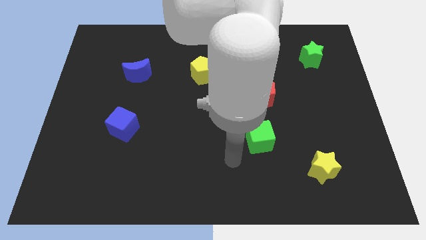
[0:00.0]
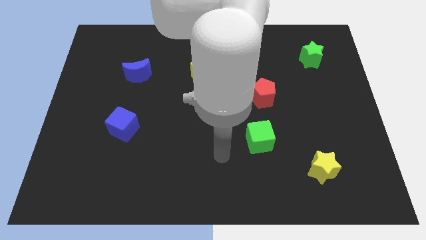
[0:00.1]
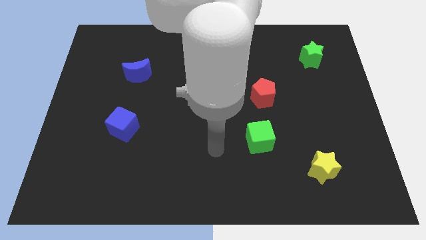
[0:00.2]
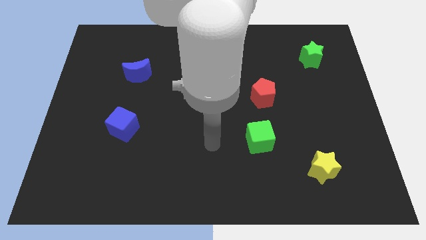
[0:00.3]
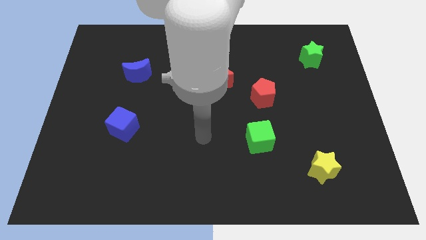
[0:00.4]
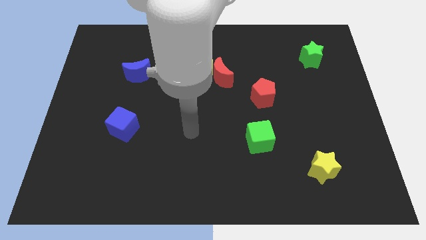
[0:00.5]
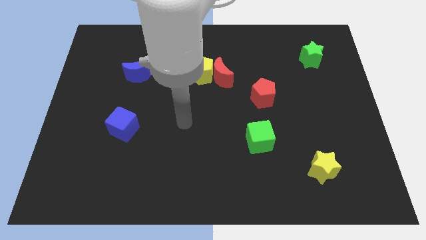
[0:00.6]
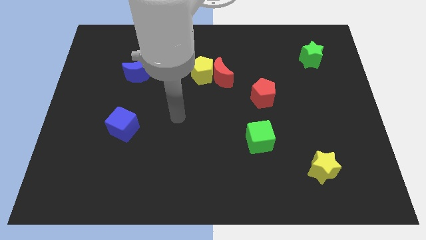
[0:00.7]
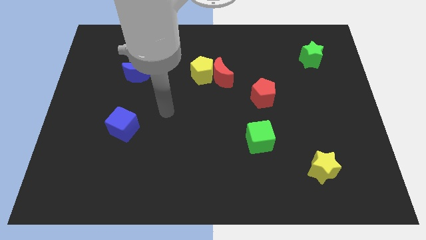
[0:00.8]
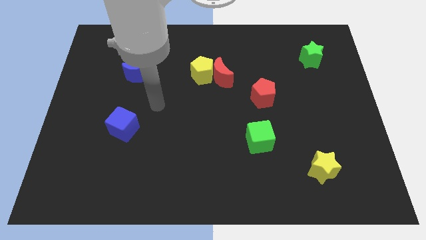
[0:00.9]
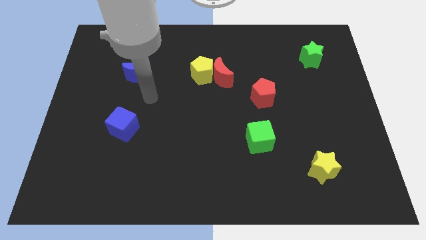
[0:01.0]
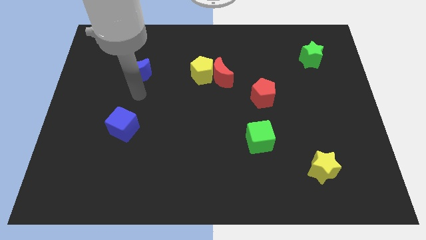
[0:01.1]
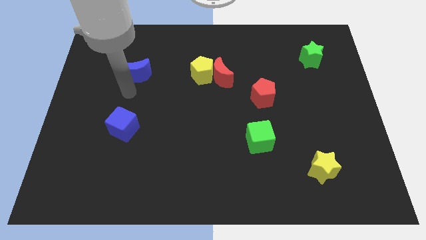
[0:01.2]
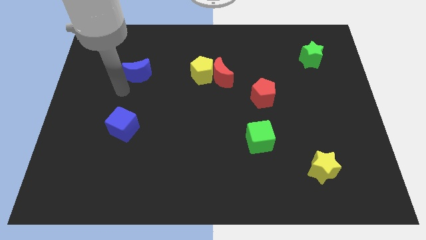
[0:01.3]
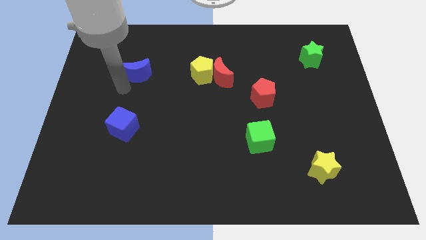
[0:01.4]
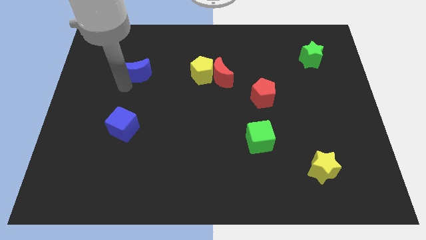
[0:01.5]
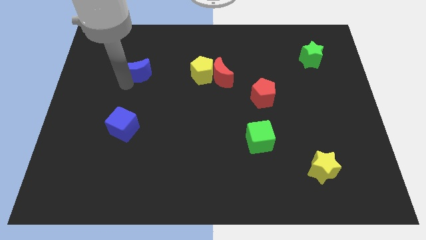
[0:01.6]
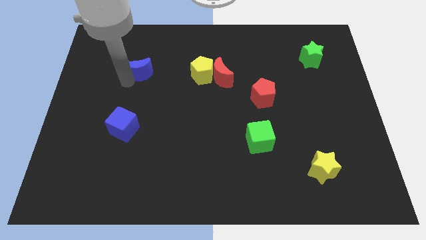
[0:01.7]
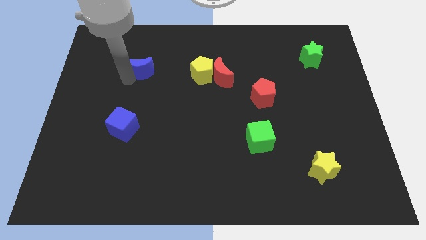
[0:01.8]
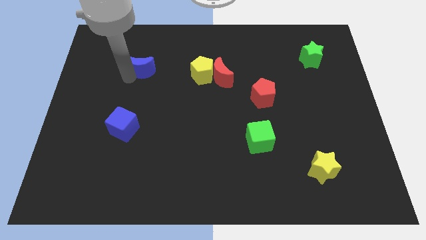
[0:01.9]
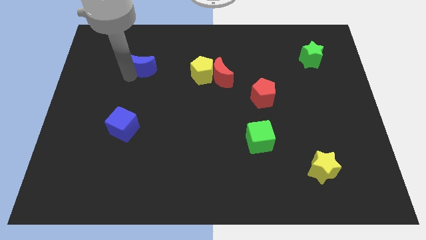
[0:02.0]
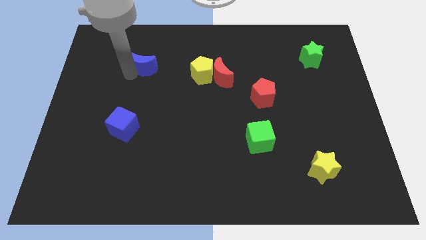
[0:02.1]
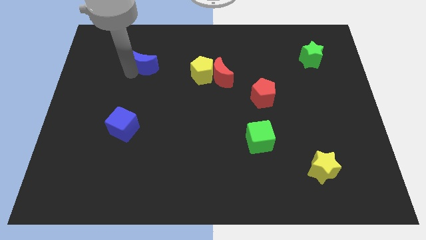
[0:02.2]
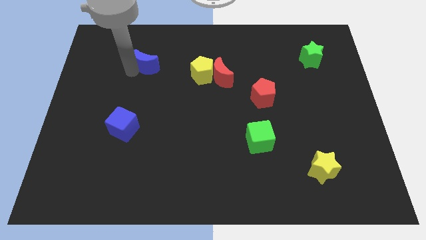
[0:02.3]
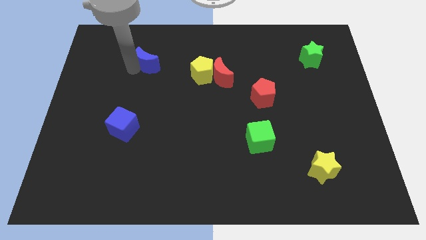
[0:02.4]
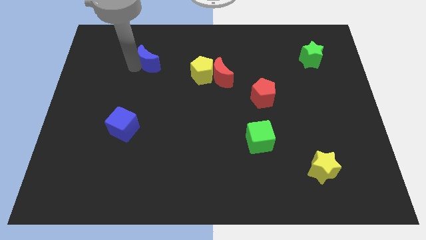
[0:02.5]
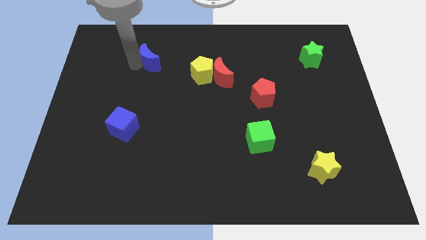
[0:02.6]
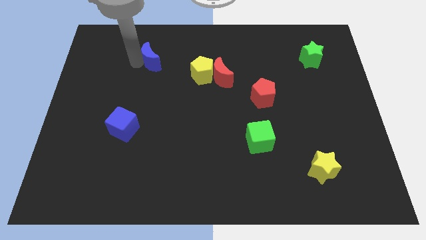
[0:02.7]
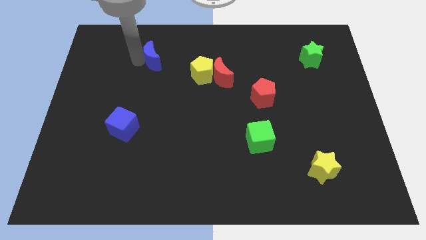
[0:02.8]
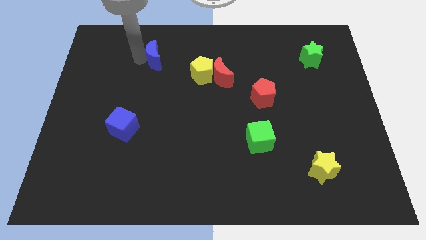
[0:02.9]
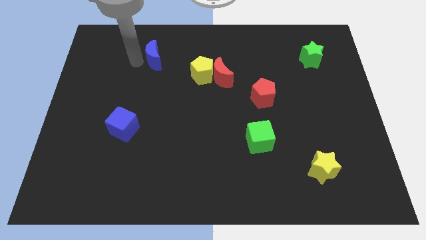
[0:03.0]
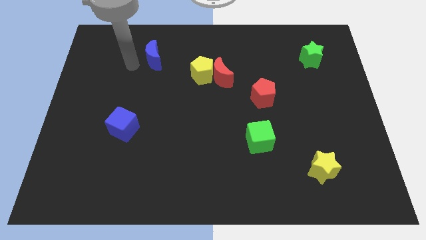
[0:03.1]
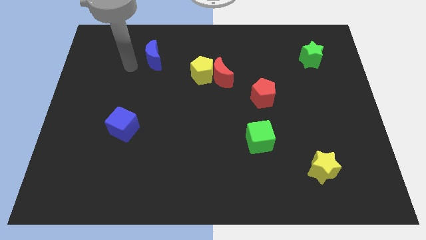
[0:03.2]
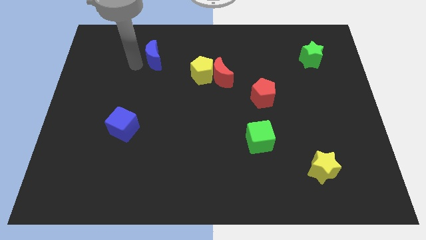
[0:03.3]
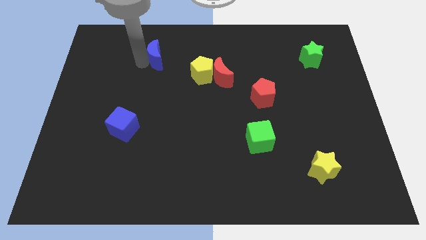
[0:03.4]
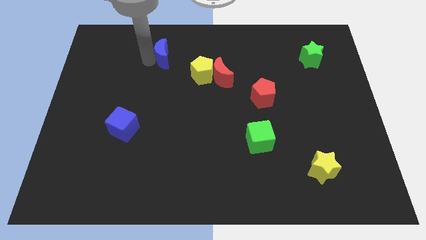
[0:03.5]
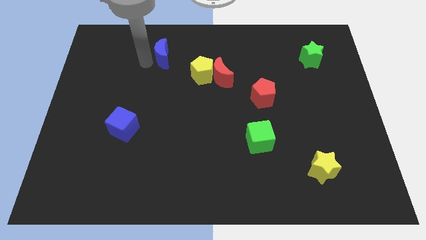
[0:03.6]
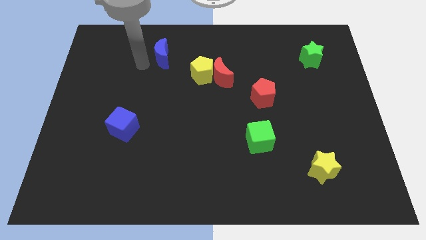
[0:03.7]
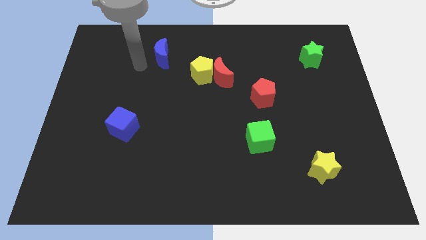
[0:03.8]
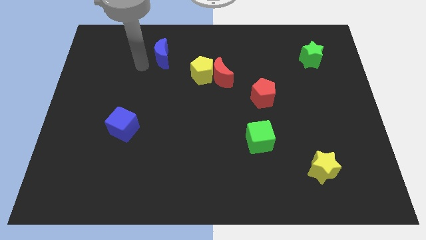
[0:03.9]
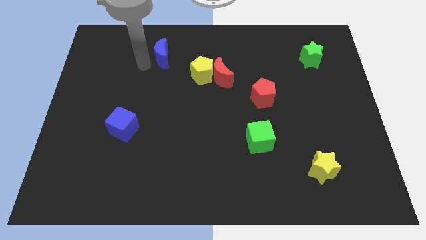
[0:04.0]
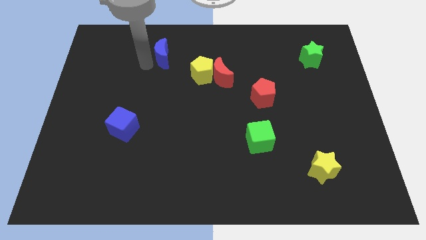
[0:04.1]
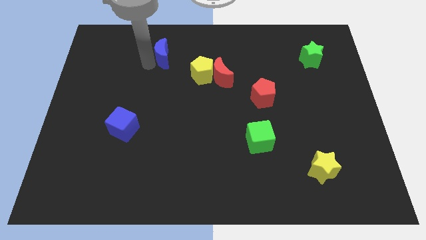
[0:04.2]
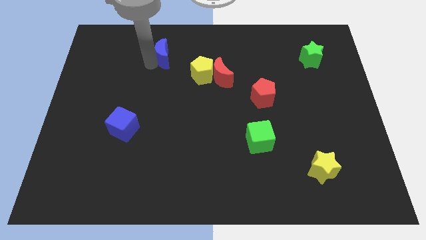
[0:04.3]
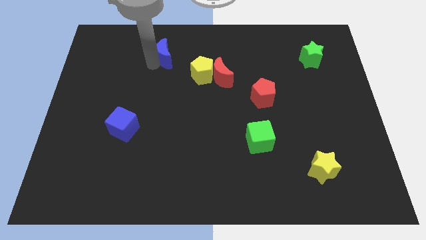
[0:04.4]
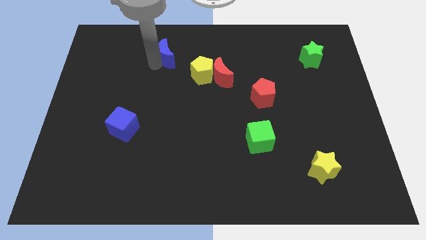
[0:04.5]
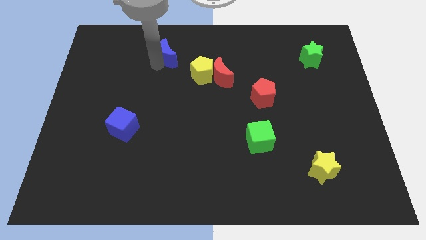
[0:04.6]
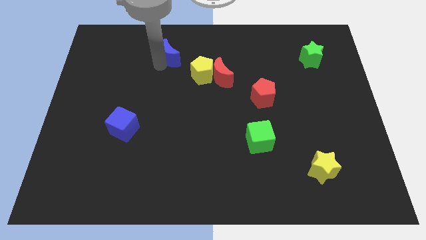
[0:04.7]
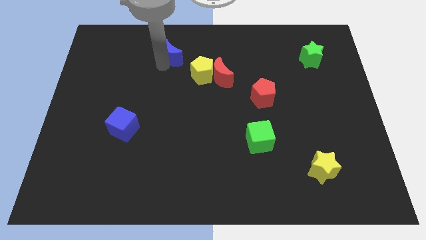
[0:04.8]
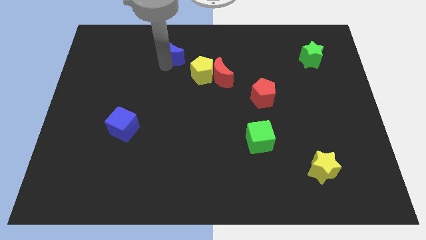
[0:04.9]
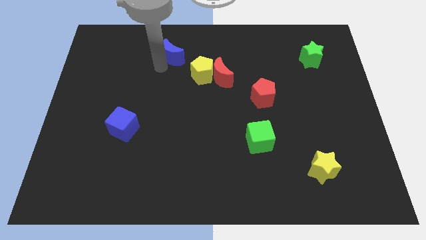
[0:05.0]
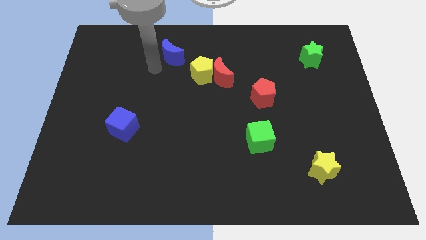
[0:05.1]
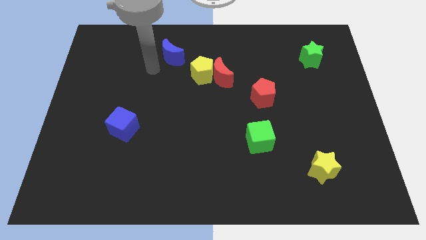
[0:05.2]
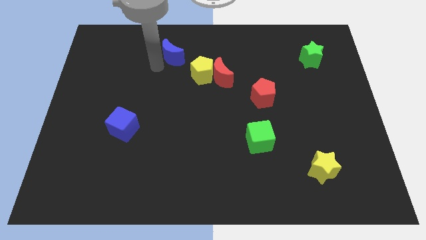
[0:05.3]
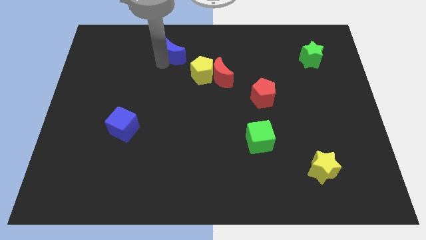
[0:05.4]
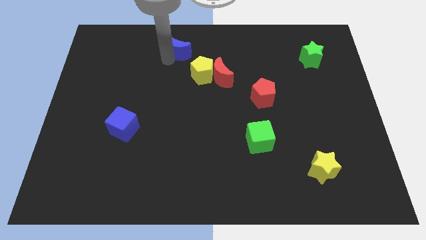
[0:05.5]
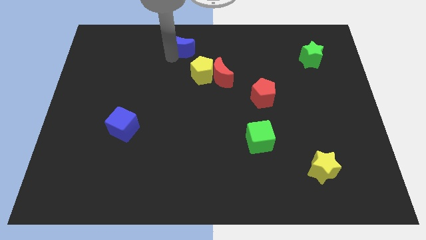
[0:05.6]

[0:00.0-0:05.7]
slide the blue moon to the top side

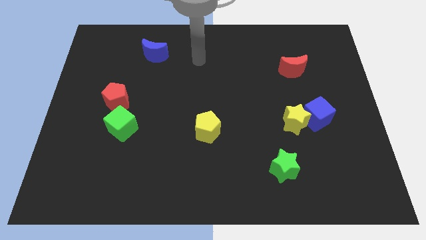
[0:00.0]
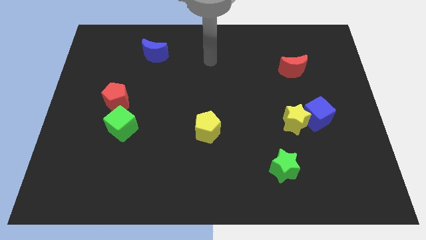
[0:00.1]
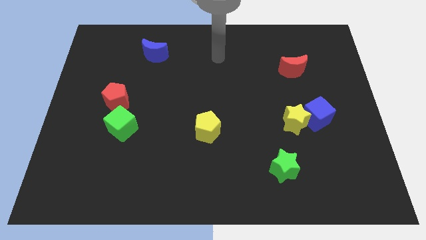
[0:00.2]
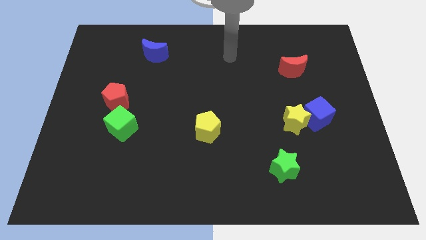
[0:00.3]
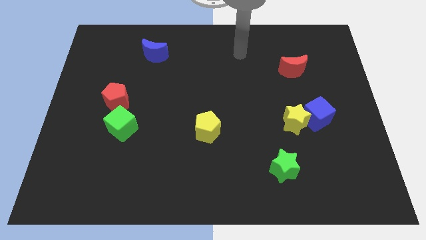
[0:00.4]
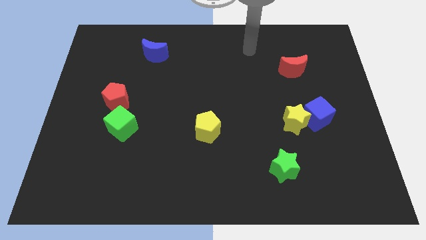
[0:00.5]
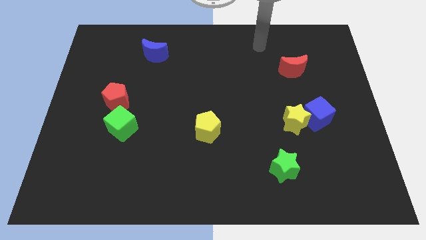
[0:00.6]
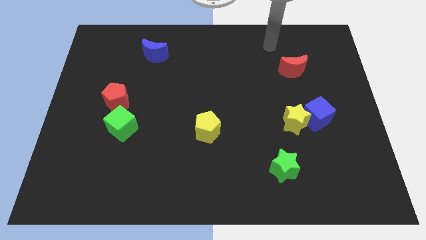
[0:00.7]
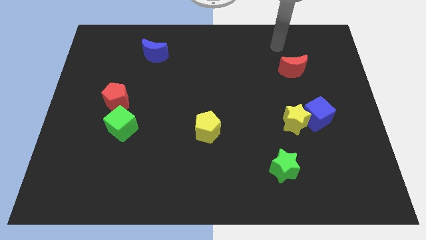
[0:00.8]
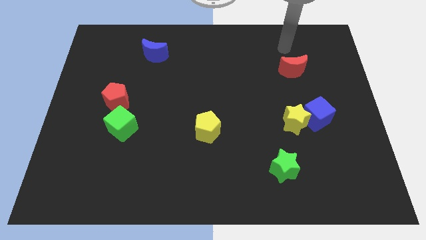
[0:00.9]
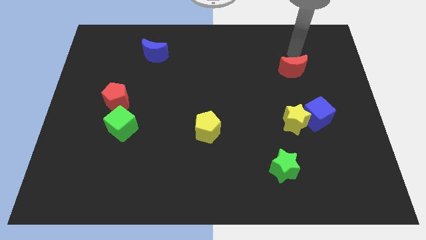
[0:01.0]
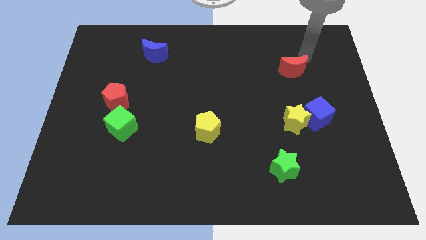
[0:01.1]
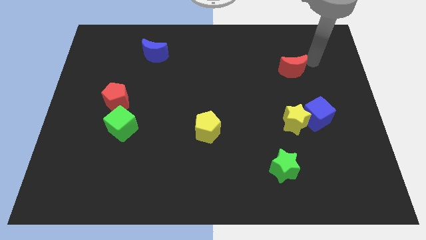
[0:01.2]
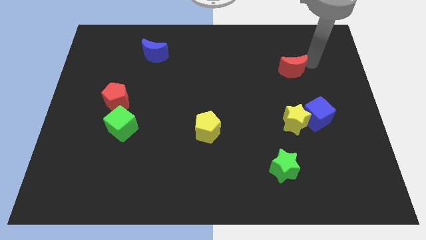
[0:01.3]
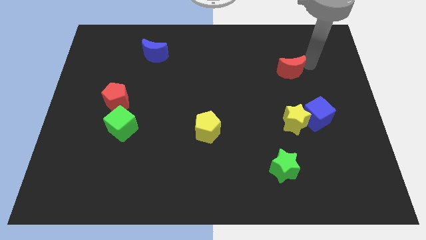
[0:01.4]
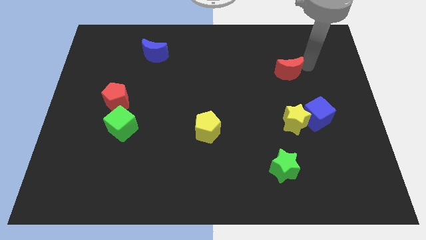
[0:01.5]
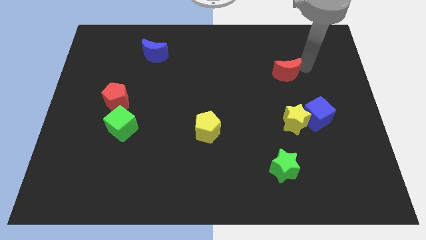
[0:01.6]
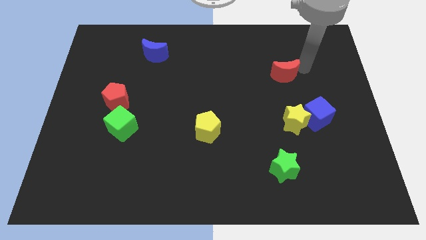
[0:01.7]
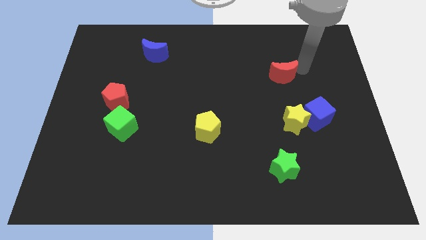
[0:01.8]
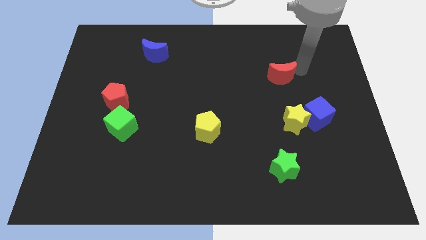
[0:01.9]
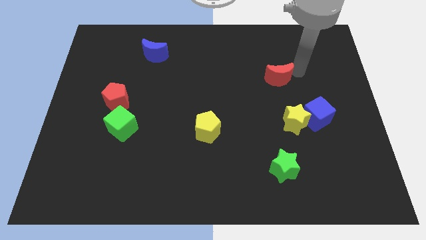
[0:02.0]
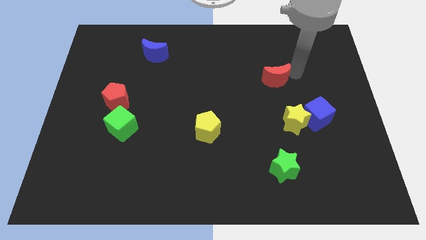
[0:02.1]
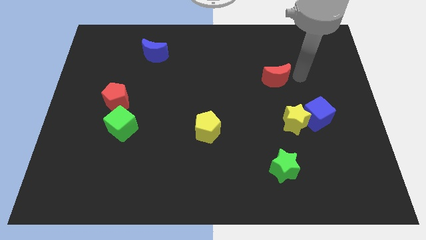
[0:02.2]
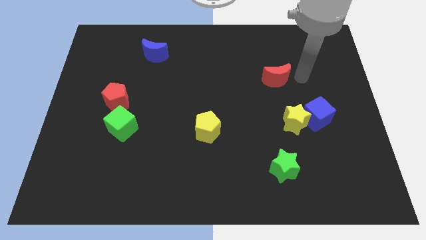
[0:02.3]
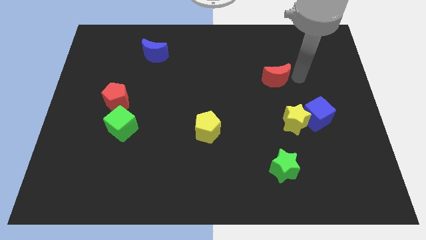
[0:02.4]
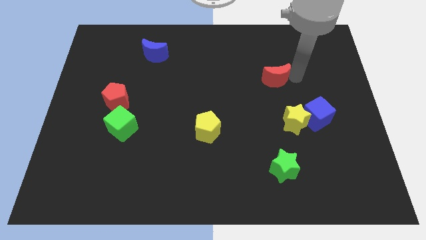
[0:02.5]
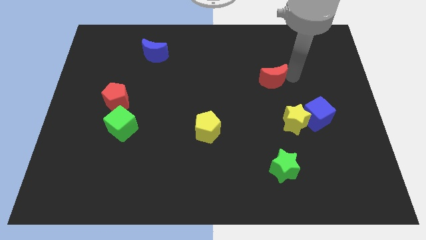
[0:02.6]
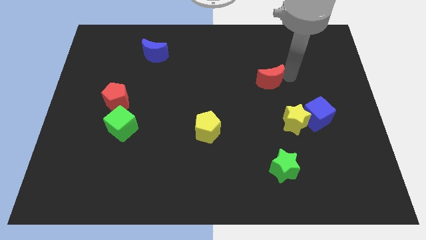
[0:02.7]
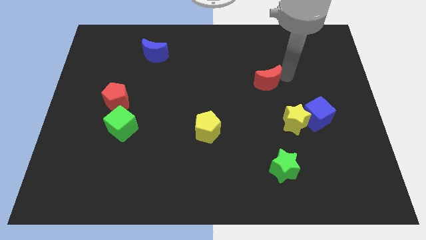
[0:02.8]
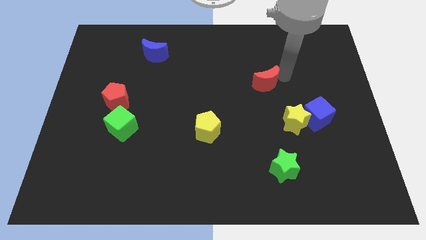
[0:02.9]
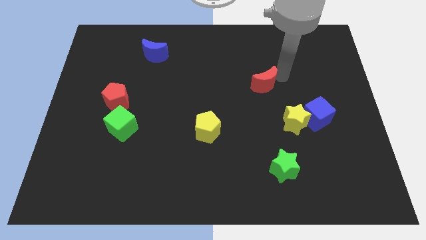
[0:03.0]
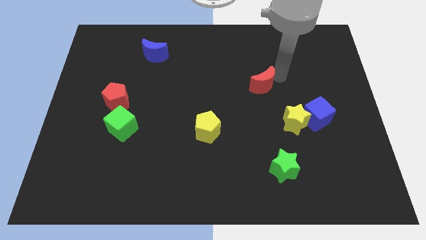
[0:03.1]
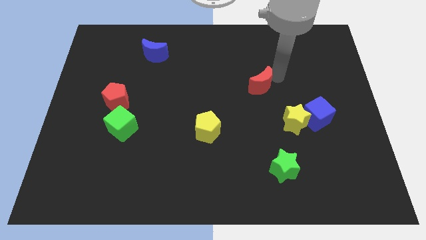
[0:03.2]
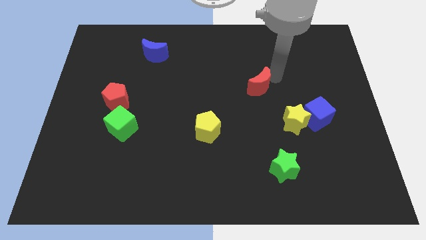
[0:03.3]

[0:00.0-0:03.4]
slide the red moon to the center
